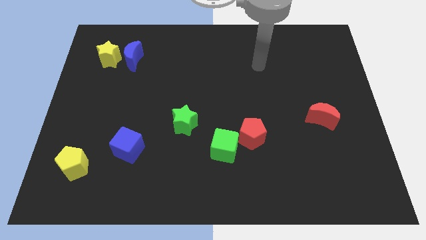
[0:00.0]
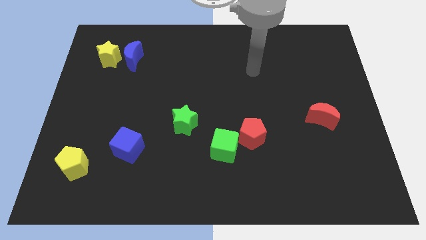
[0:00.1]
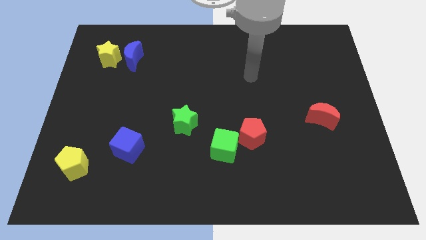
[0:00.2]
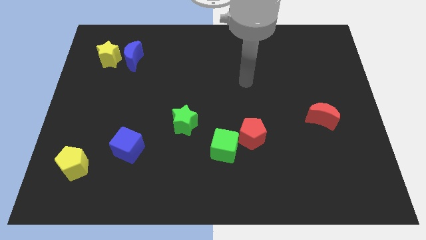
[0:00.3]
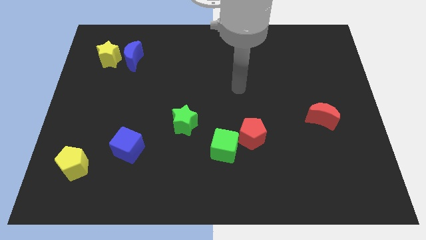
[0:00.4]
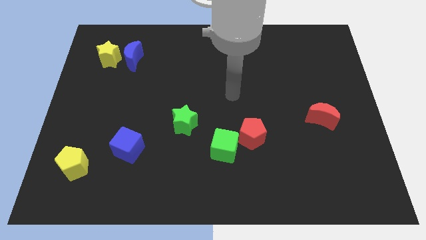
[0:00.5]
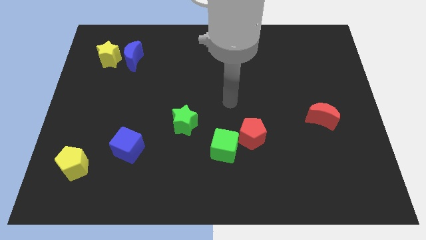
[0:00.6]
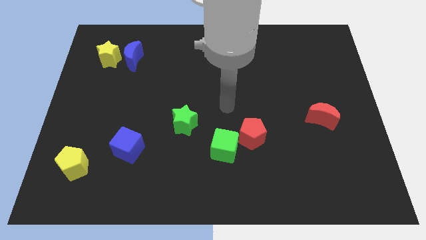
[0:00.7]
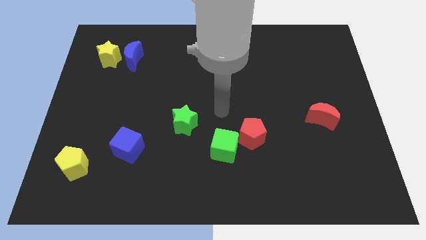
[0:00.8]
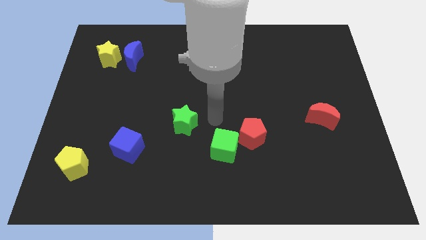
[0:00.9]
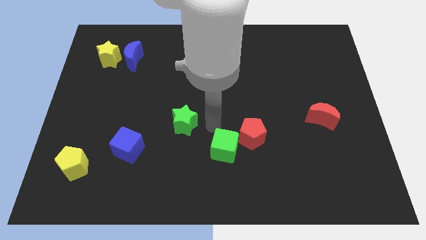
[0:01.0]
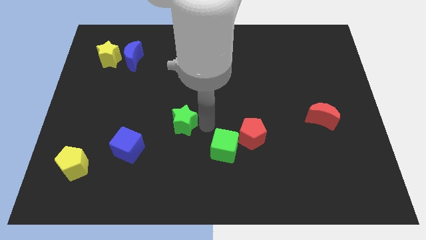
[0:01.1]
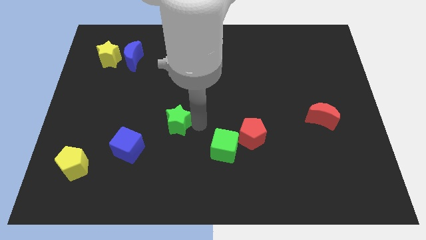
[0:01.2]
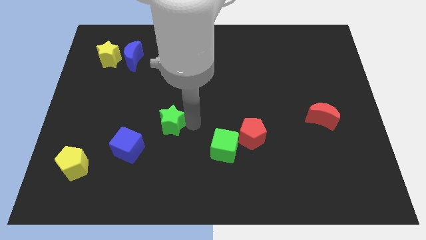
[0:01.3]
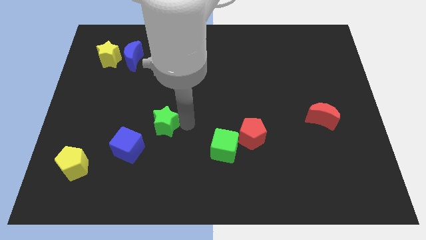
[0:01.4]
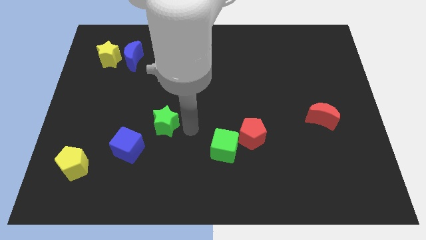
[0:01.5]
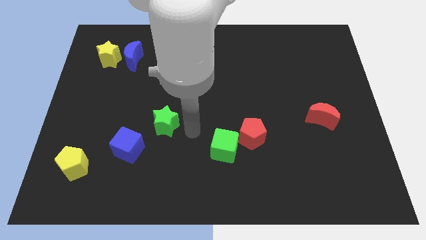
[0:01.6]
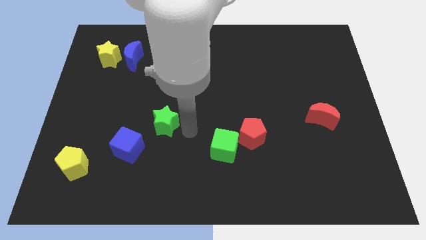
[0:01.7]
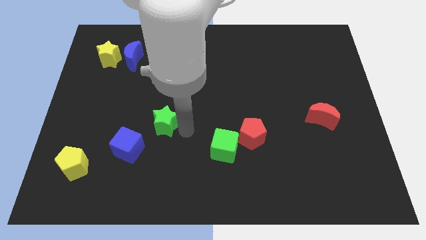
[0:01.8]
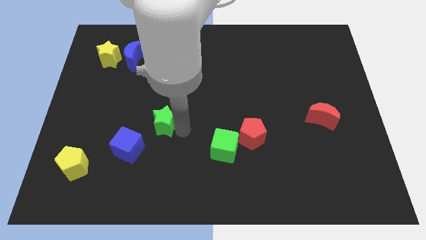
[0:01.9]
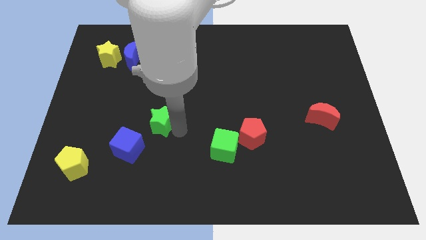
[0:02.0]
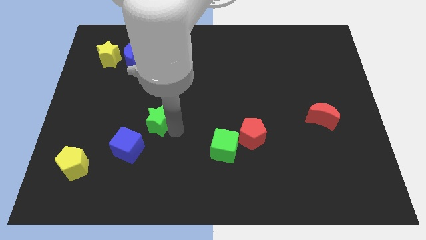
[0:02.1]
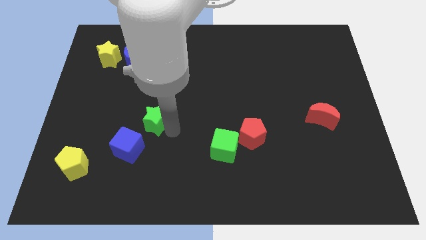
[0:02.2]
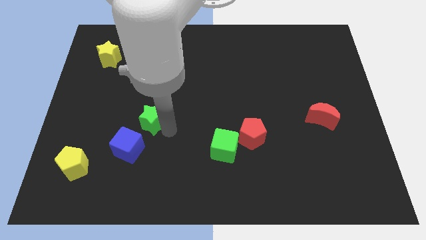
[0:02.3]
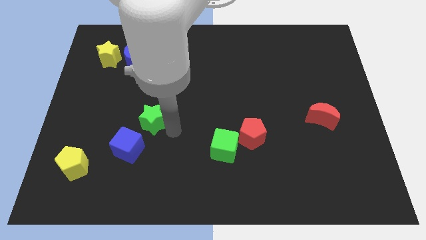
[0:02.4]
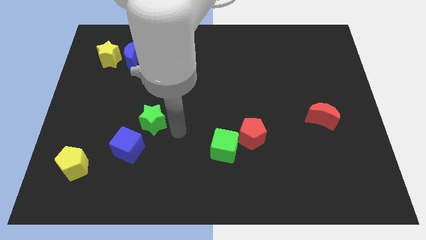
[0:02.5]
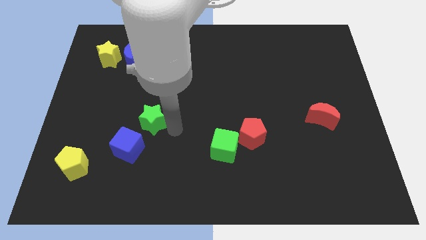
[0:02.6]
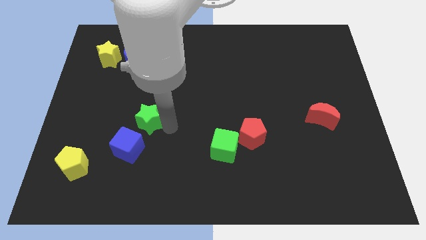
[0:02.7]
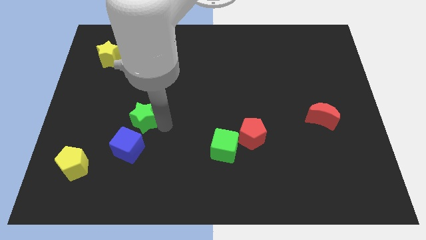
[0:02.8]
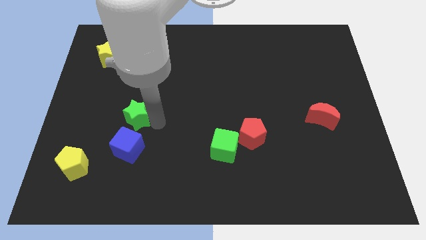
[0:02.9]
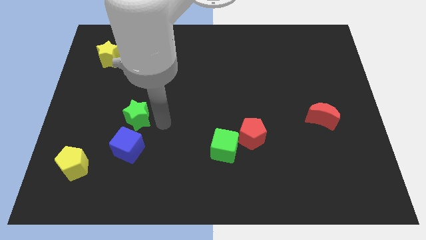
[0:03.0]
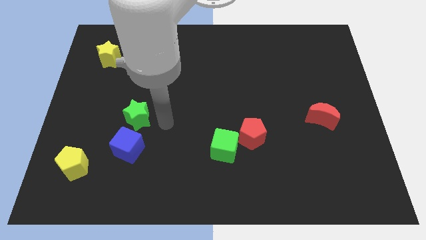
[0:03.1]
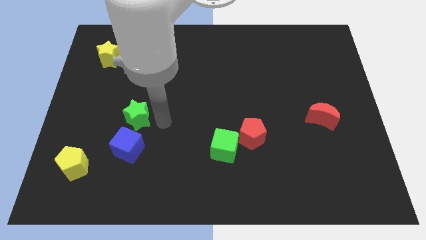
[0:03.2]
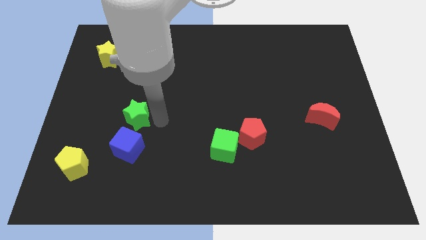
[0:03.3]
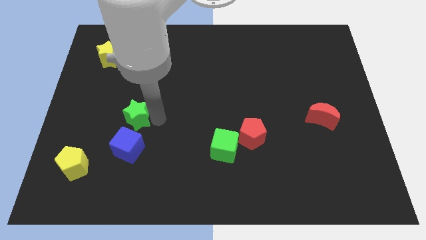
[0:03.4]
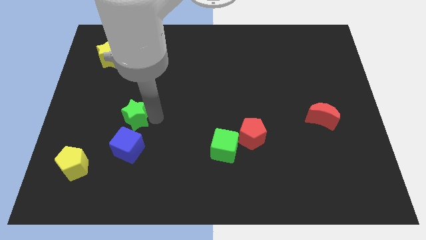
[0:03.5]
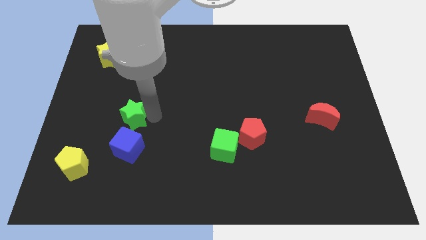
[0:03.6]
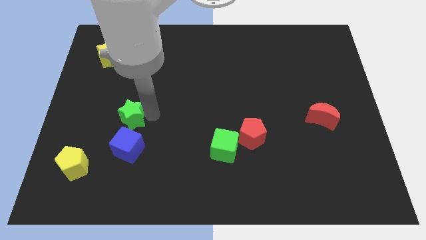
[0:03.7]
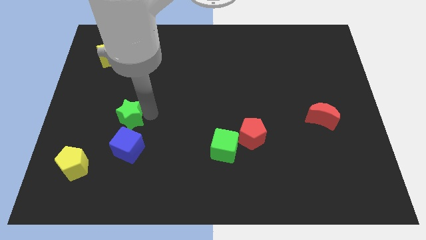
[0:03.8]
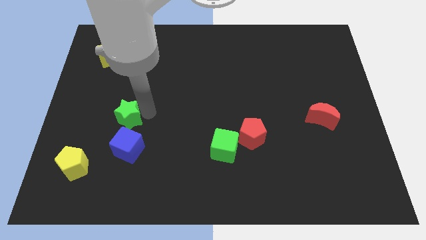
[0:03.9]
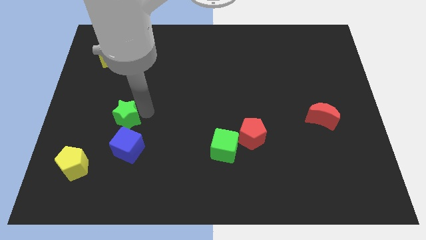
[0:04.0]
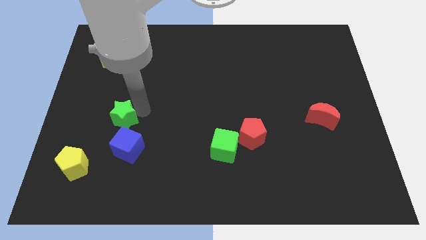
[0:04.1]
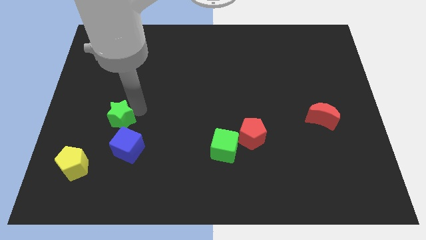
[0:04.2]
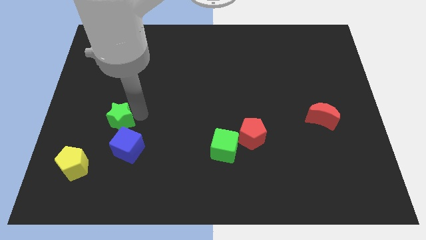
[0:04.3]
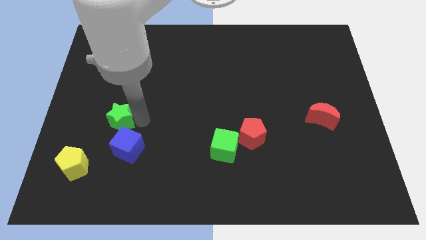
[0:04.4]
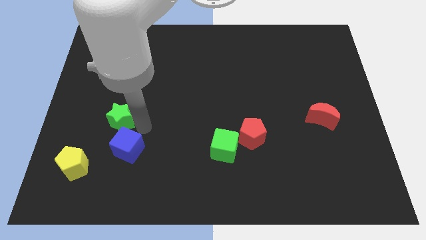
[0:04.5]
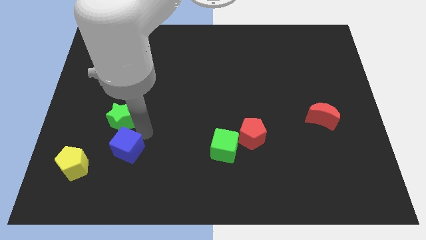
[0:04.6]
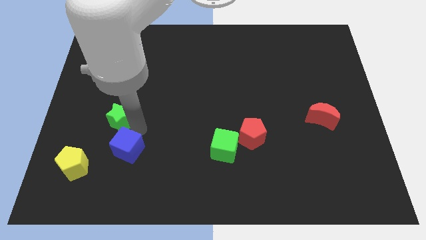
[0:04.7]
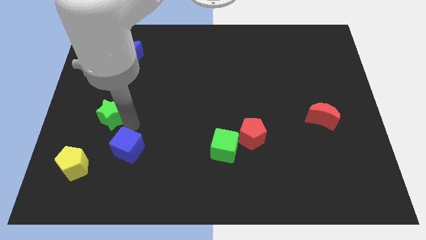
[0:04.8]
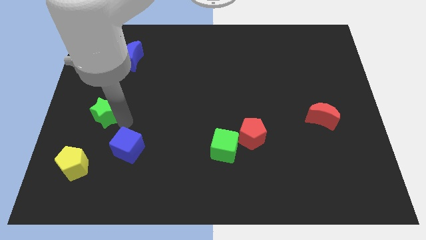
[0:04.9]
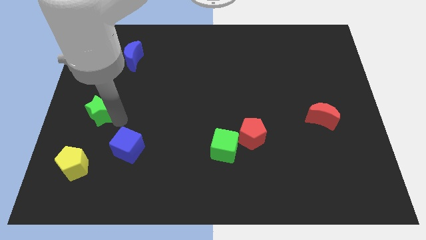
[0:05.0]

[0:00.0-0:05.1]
move the green star to the center left

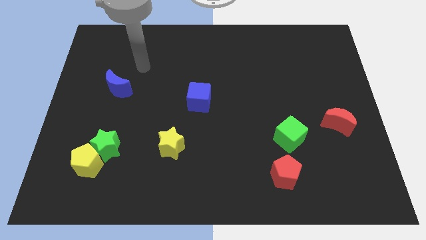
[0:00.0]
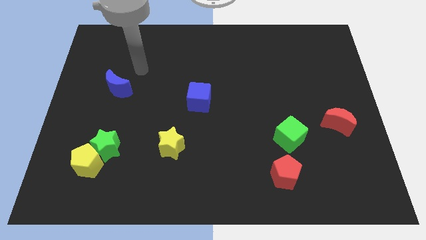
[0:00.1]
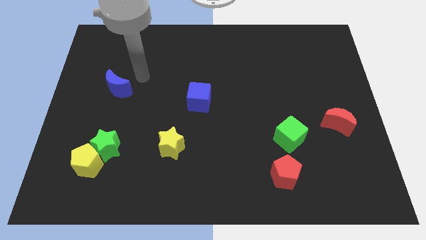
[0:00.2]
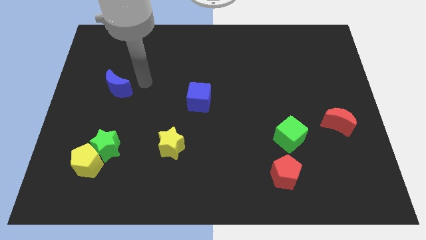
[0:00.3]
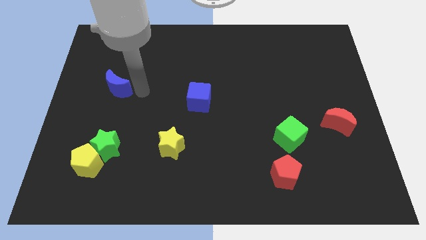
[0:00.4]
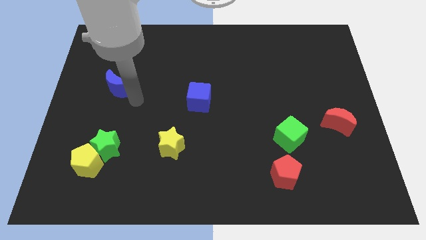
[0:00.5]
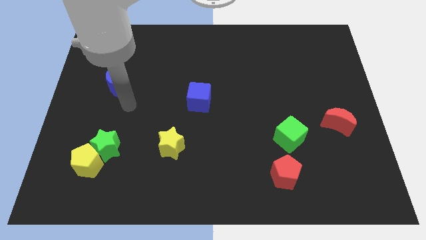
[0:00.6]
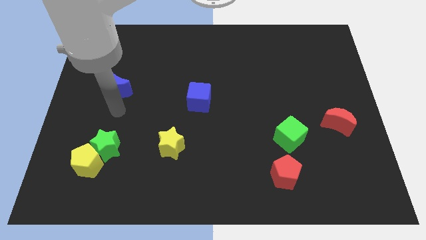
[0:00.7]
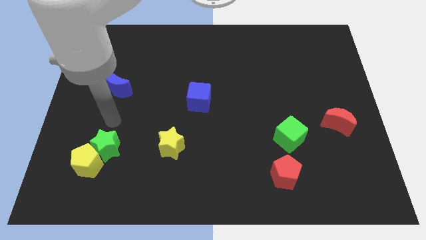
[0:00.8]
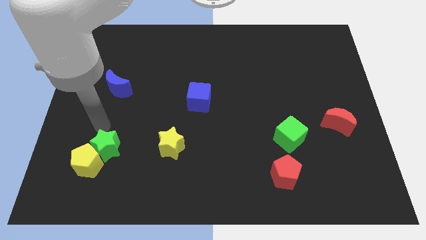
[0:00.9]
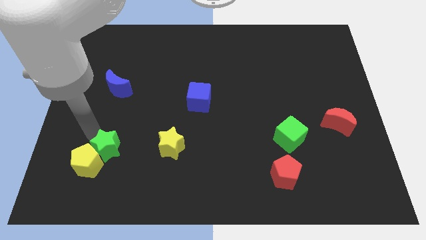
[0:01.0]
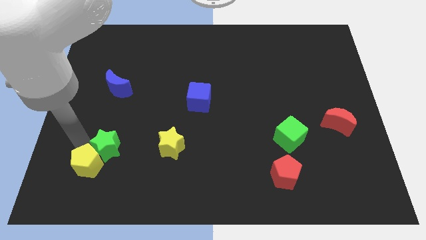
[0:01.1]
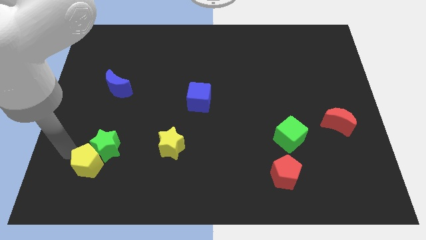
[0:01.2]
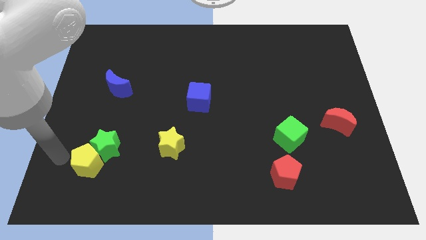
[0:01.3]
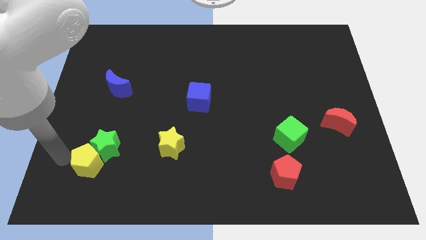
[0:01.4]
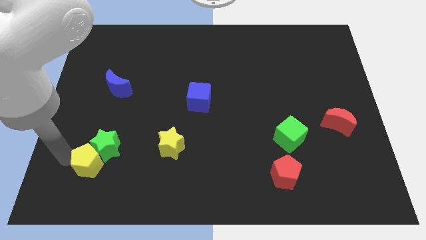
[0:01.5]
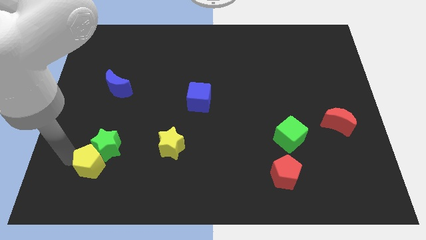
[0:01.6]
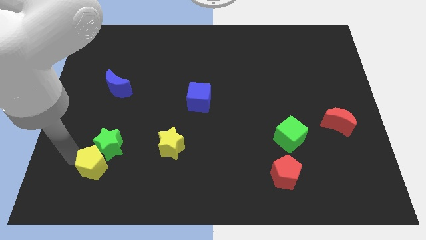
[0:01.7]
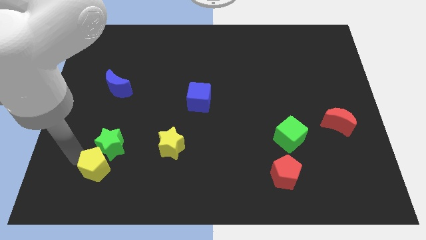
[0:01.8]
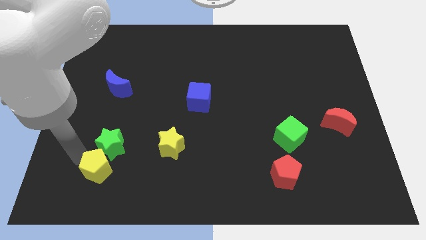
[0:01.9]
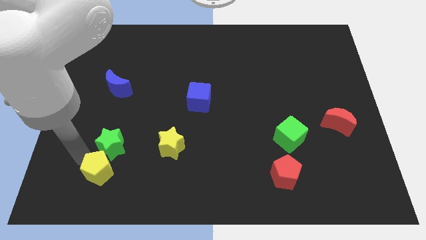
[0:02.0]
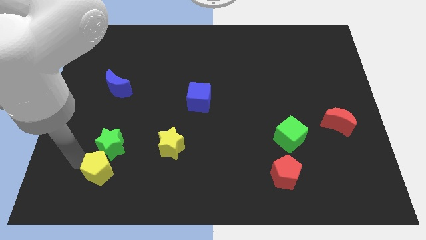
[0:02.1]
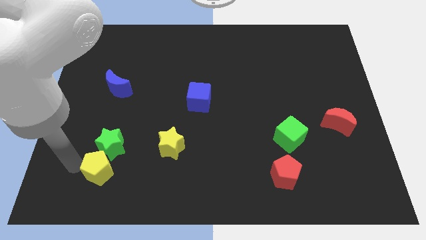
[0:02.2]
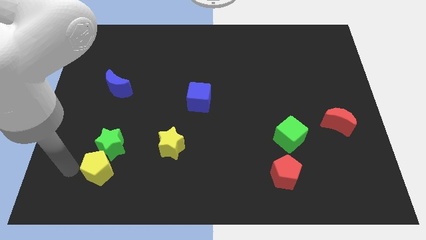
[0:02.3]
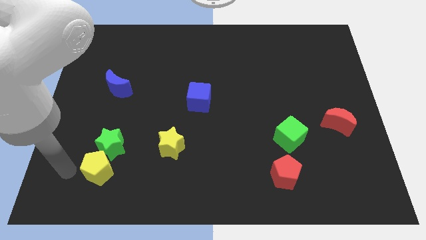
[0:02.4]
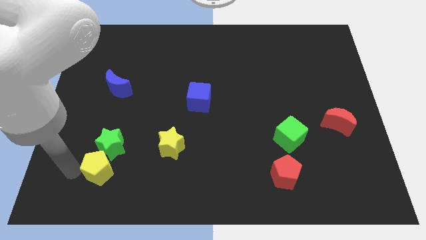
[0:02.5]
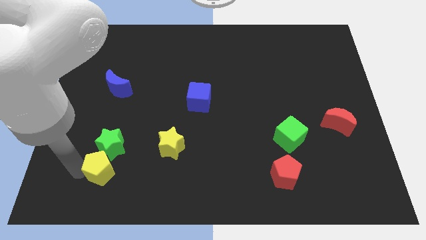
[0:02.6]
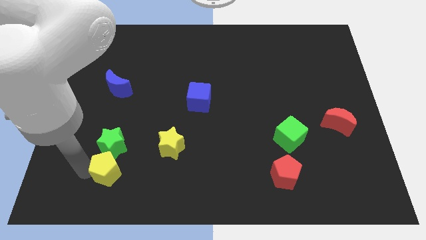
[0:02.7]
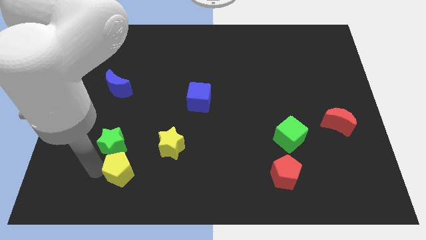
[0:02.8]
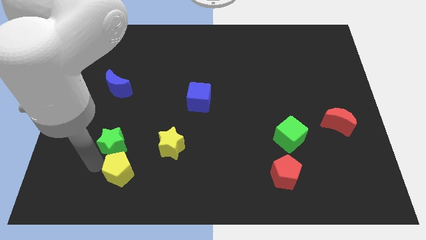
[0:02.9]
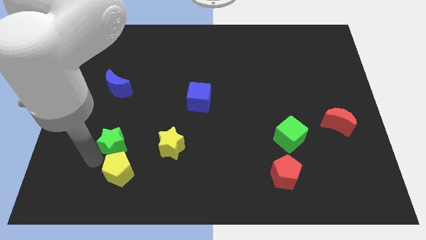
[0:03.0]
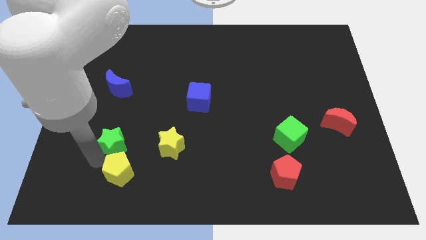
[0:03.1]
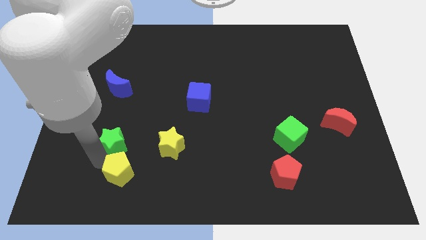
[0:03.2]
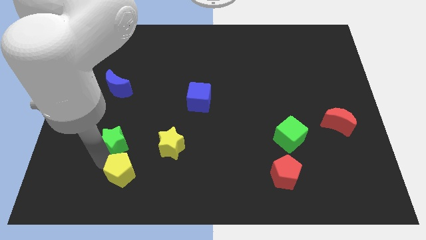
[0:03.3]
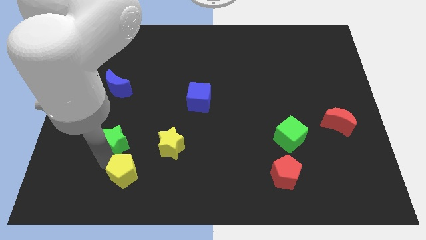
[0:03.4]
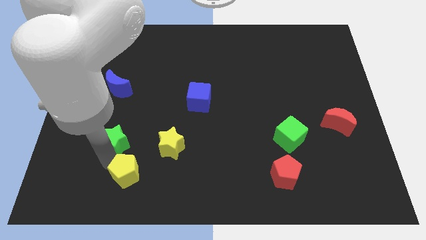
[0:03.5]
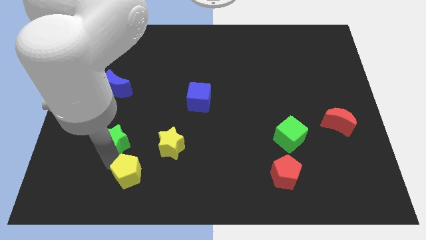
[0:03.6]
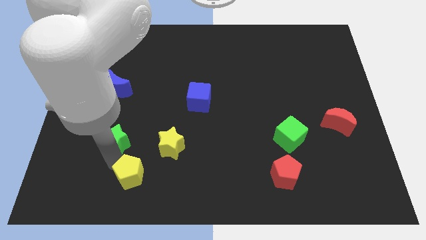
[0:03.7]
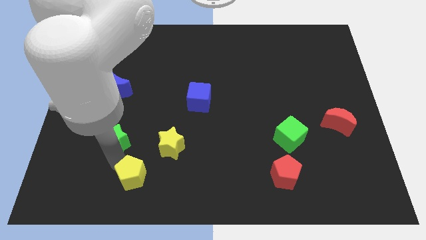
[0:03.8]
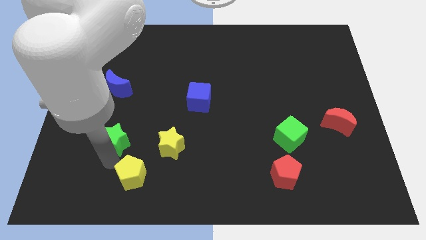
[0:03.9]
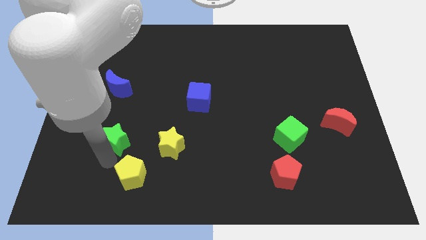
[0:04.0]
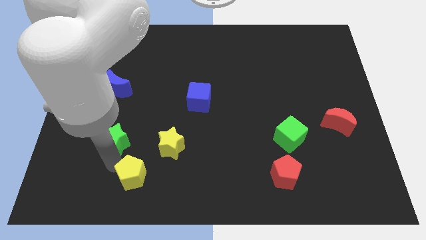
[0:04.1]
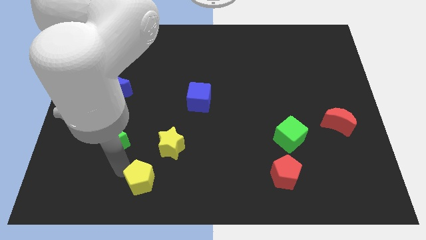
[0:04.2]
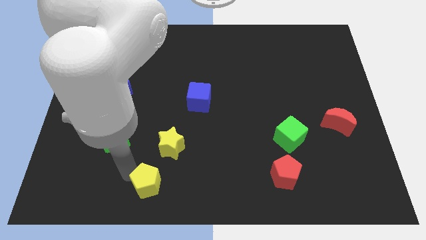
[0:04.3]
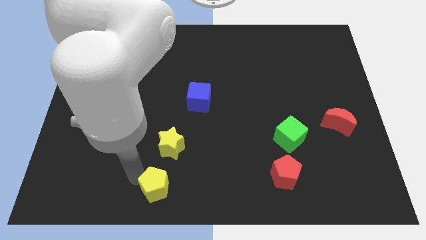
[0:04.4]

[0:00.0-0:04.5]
move the yellow pentagon to the bottom
